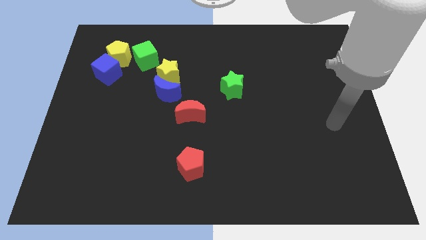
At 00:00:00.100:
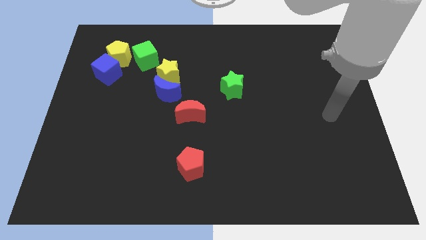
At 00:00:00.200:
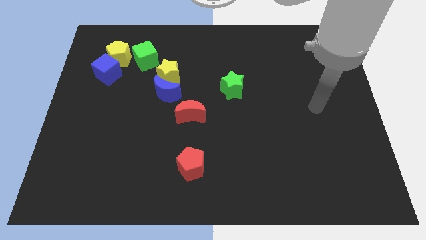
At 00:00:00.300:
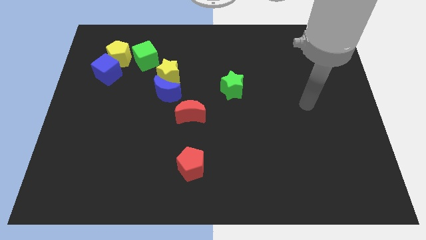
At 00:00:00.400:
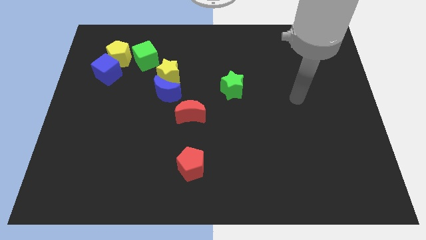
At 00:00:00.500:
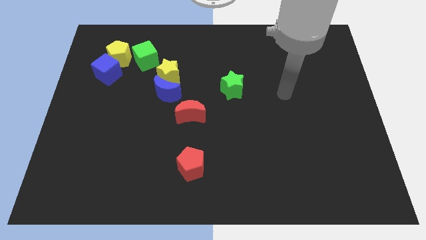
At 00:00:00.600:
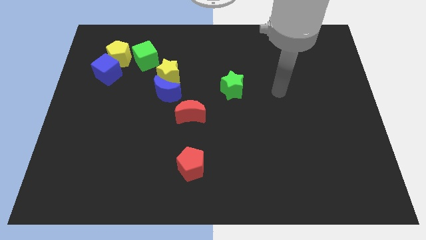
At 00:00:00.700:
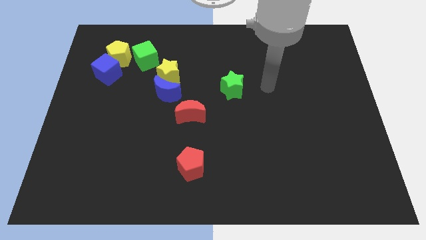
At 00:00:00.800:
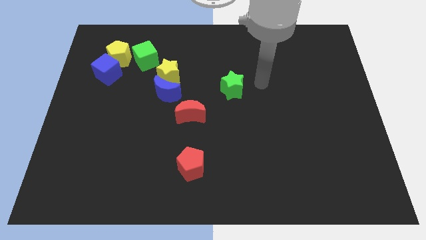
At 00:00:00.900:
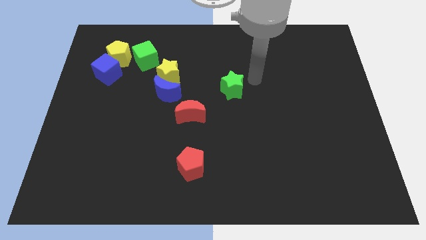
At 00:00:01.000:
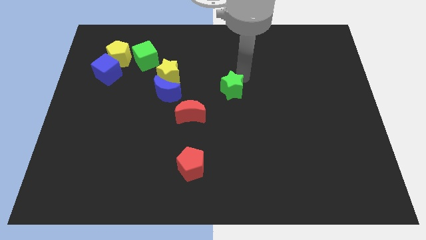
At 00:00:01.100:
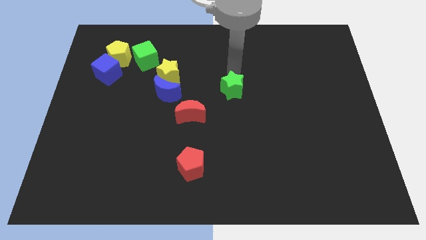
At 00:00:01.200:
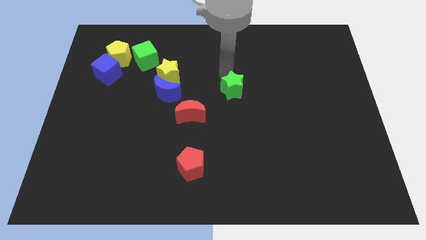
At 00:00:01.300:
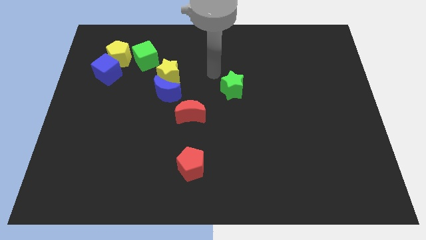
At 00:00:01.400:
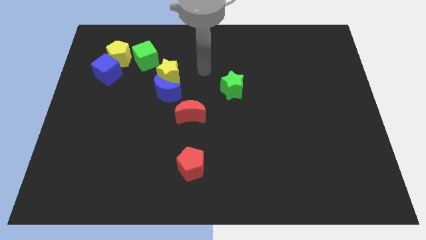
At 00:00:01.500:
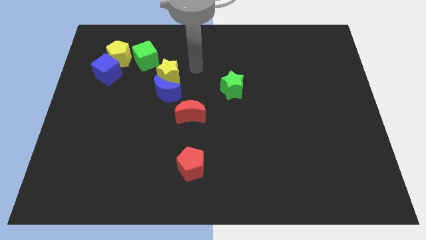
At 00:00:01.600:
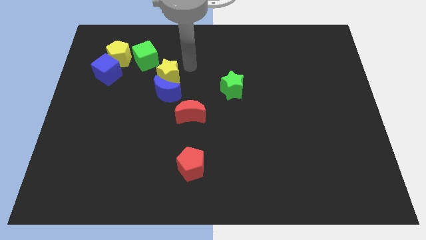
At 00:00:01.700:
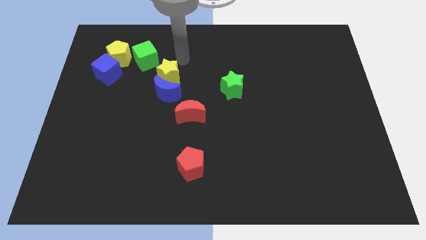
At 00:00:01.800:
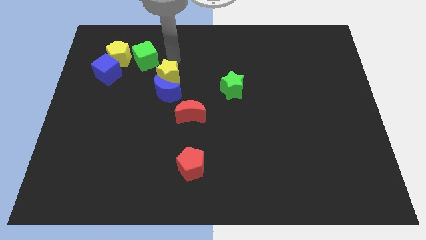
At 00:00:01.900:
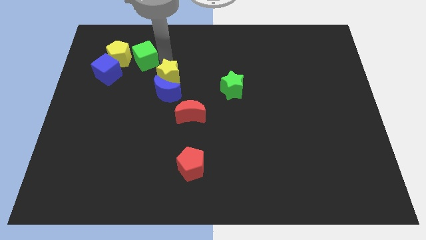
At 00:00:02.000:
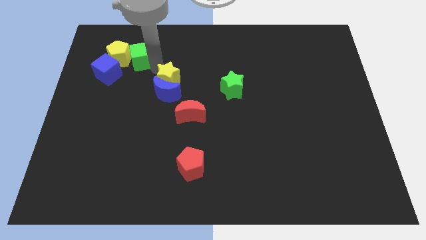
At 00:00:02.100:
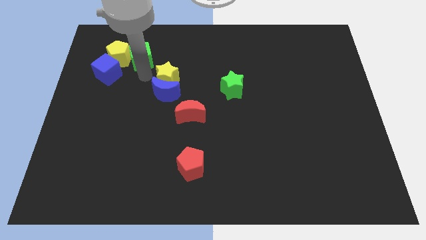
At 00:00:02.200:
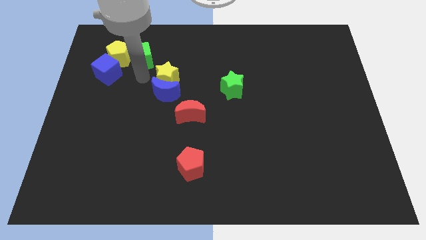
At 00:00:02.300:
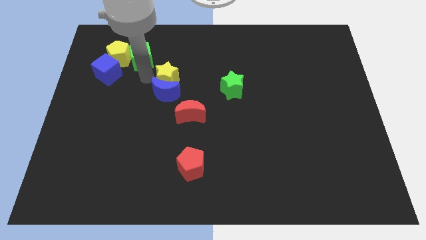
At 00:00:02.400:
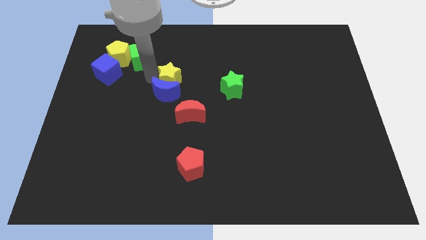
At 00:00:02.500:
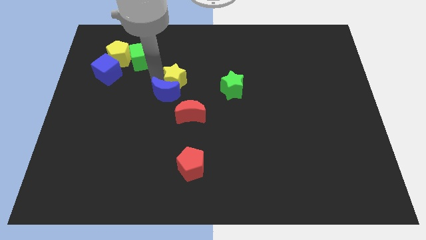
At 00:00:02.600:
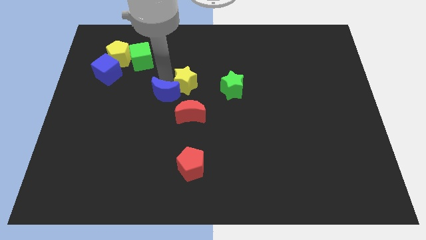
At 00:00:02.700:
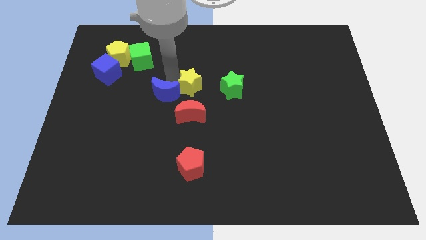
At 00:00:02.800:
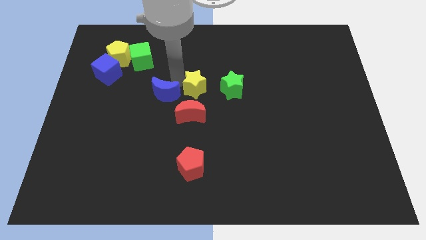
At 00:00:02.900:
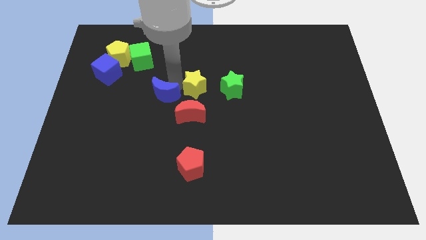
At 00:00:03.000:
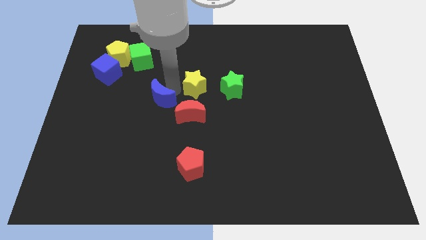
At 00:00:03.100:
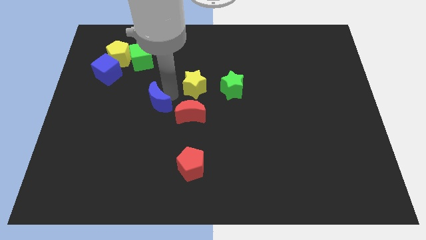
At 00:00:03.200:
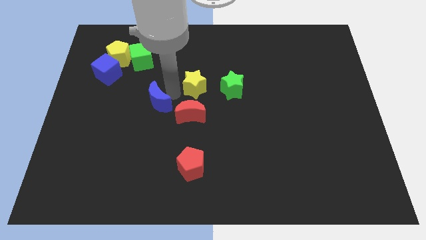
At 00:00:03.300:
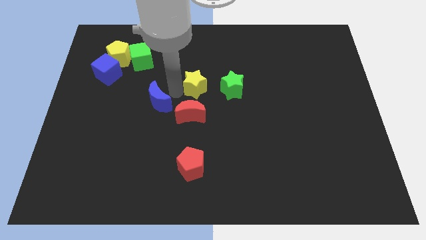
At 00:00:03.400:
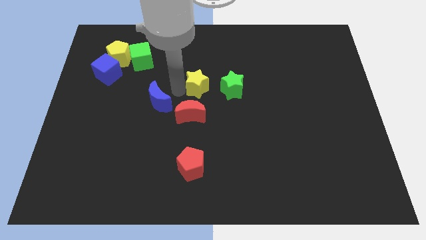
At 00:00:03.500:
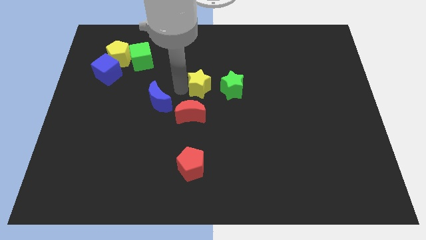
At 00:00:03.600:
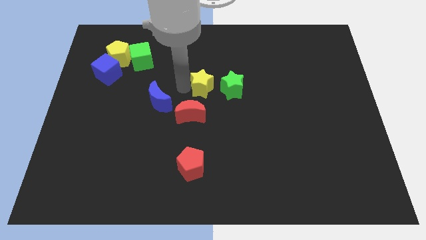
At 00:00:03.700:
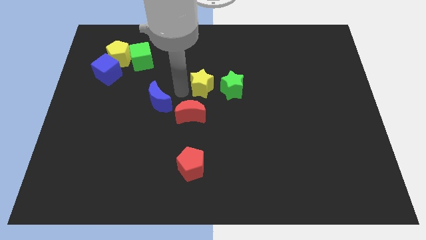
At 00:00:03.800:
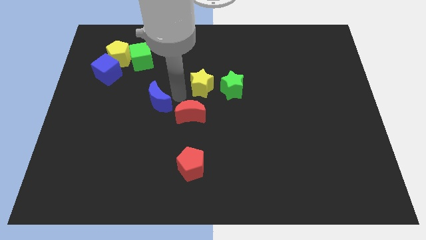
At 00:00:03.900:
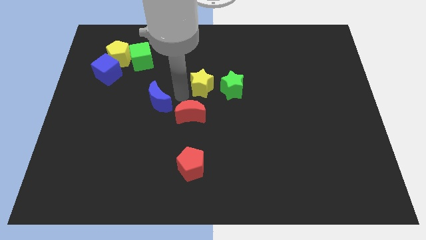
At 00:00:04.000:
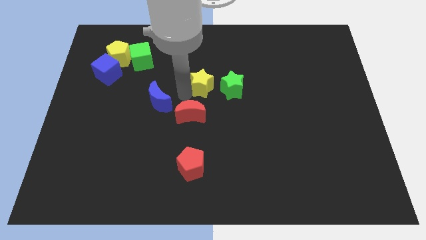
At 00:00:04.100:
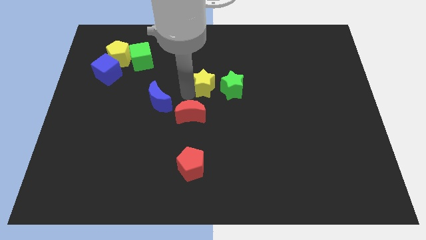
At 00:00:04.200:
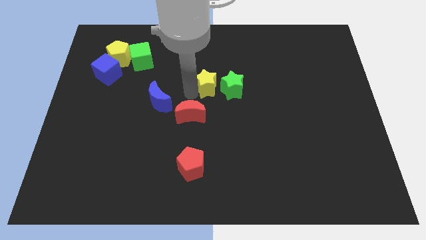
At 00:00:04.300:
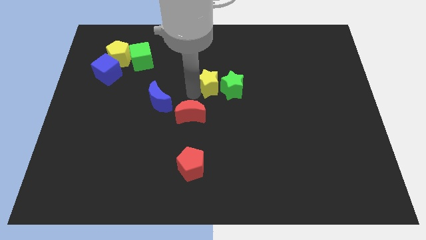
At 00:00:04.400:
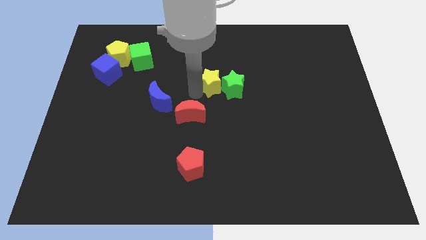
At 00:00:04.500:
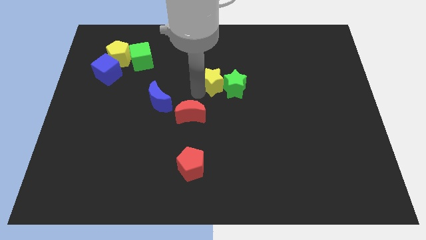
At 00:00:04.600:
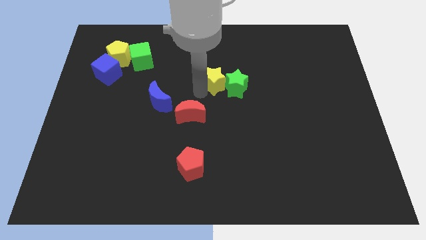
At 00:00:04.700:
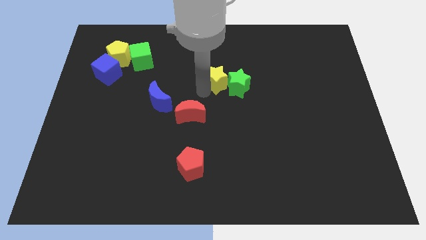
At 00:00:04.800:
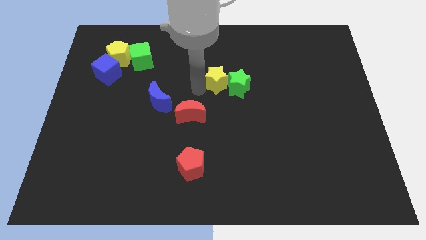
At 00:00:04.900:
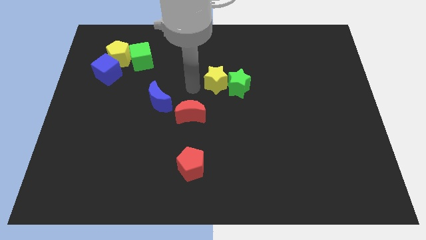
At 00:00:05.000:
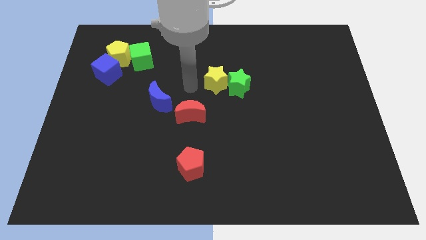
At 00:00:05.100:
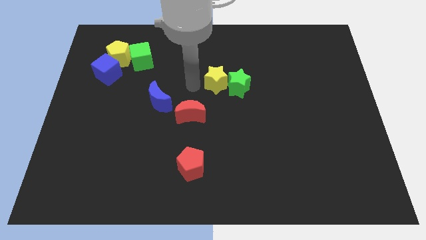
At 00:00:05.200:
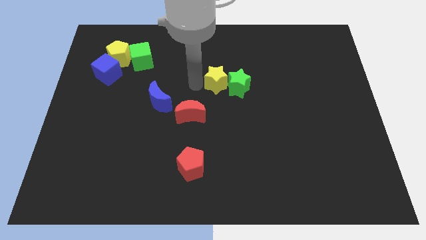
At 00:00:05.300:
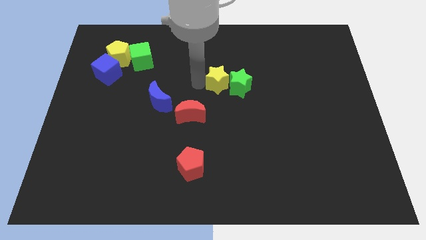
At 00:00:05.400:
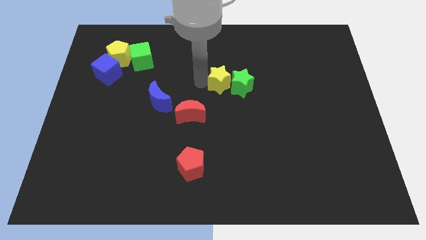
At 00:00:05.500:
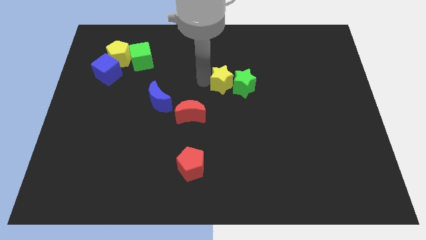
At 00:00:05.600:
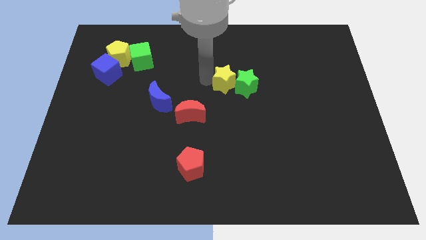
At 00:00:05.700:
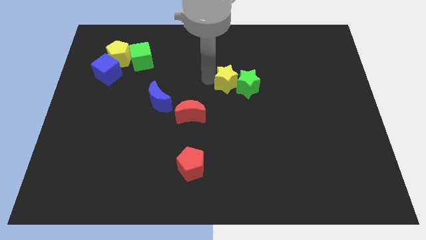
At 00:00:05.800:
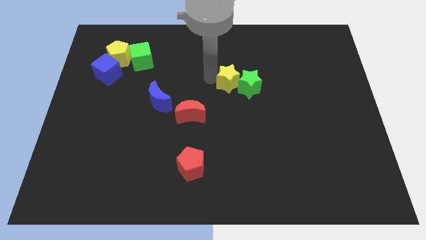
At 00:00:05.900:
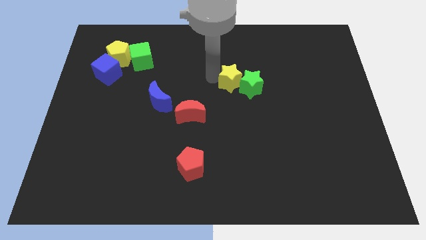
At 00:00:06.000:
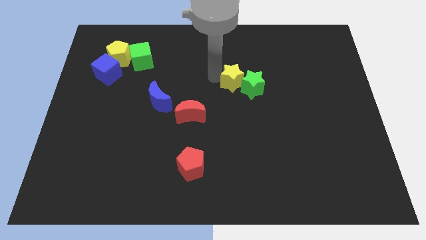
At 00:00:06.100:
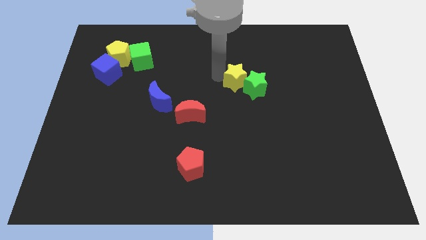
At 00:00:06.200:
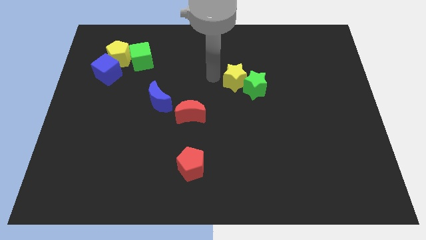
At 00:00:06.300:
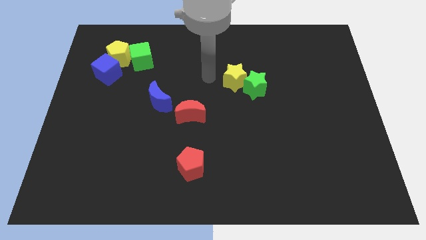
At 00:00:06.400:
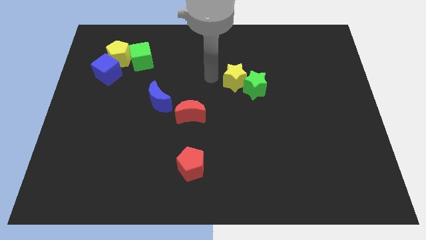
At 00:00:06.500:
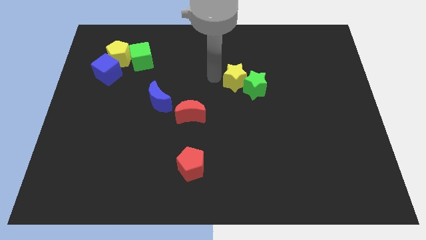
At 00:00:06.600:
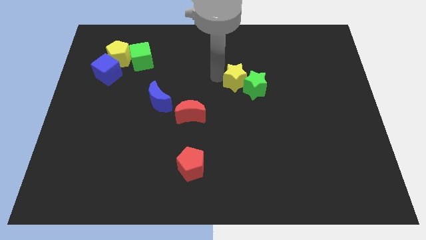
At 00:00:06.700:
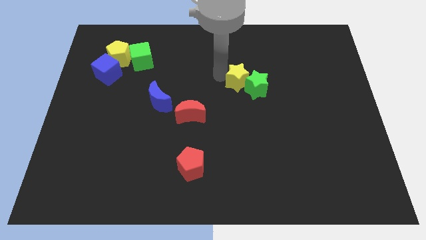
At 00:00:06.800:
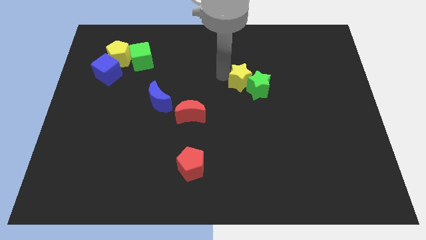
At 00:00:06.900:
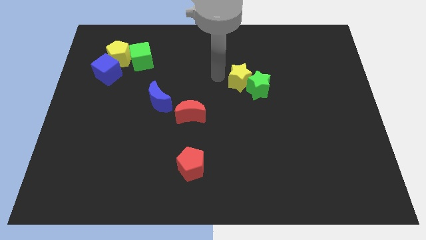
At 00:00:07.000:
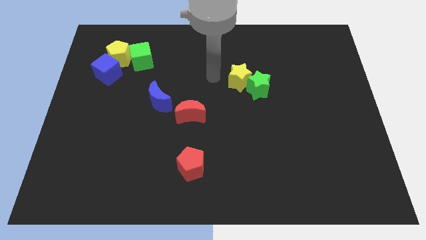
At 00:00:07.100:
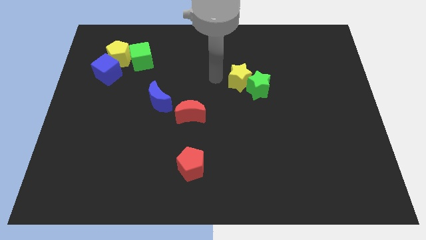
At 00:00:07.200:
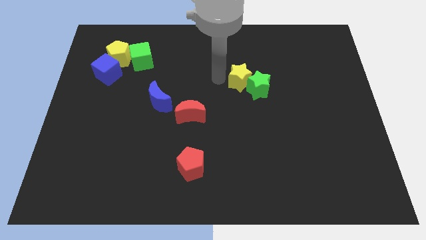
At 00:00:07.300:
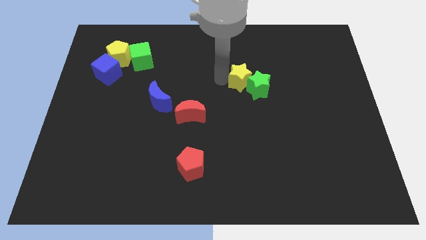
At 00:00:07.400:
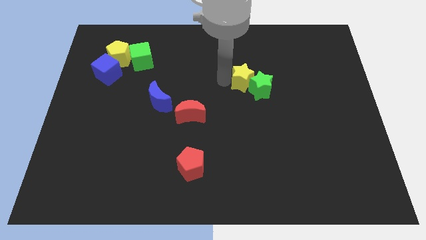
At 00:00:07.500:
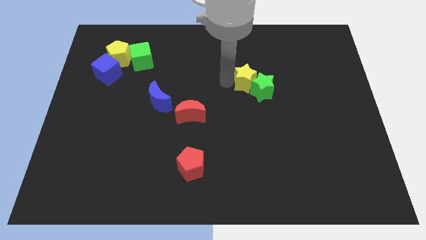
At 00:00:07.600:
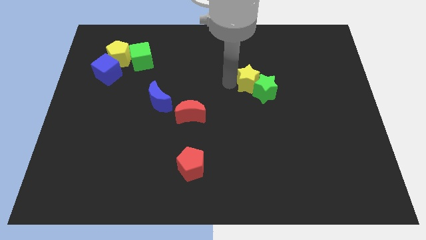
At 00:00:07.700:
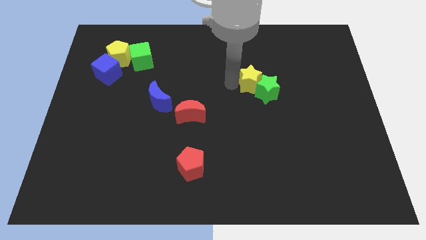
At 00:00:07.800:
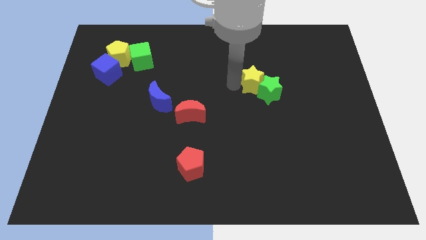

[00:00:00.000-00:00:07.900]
slide the yellow star right
